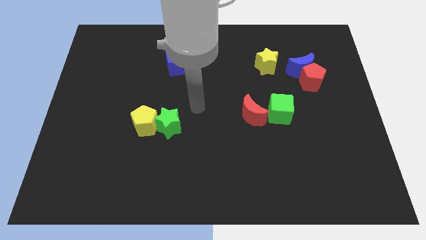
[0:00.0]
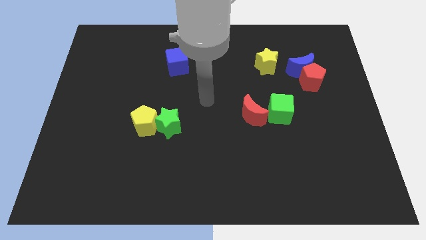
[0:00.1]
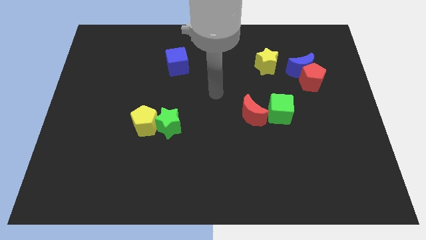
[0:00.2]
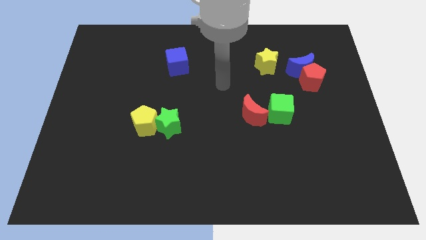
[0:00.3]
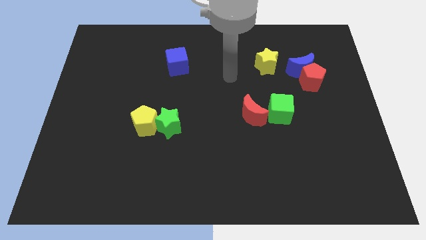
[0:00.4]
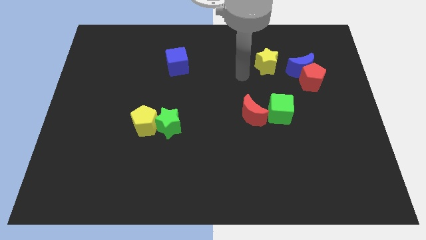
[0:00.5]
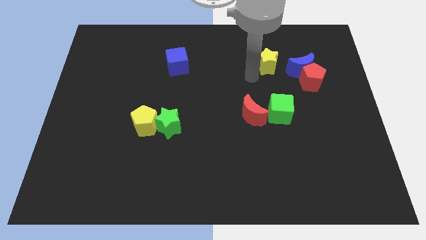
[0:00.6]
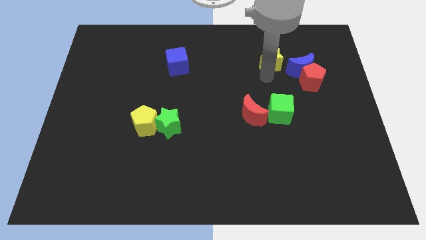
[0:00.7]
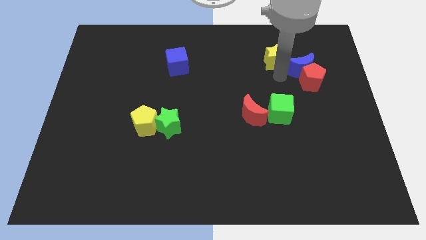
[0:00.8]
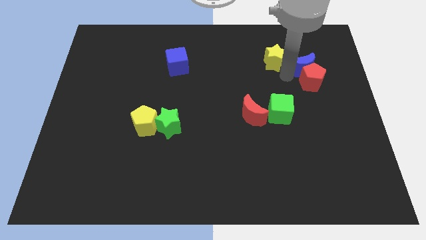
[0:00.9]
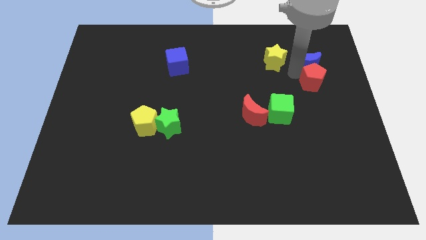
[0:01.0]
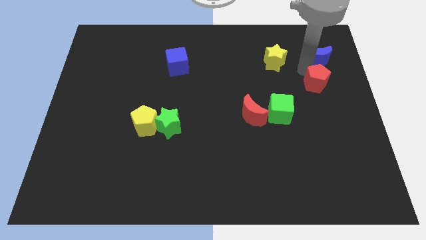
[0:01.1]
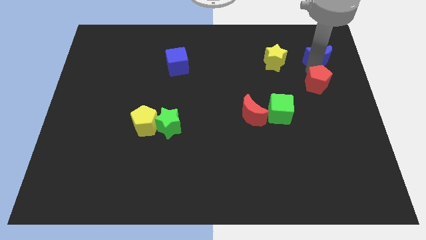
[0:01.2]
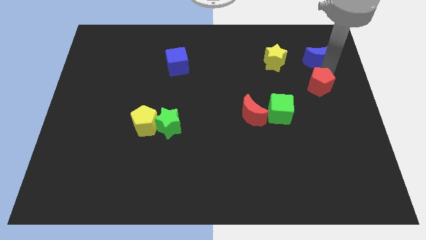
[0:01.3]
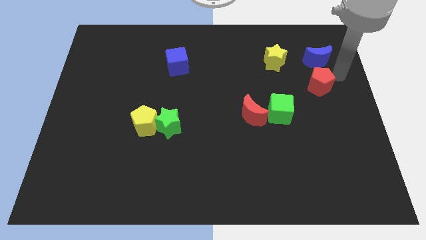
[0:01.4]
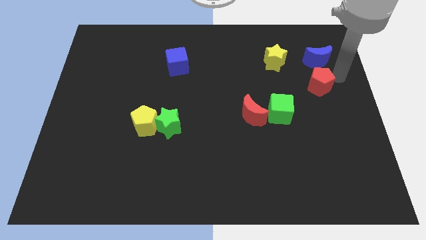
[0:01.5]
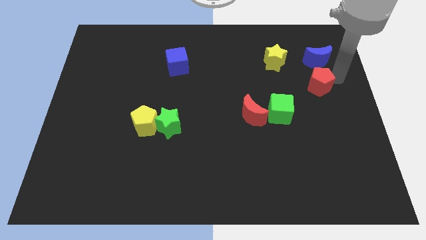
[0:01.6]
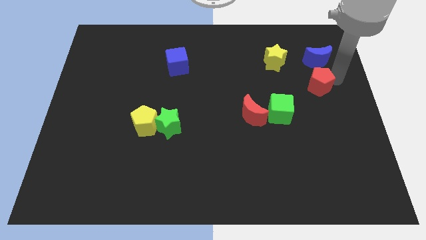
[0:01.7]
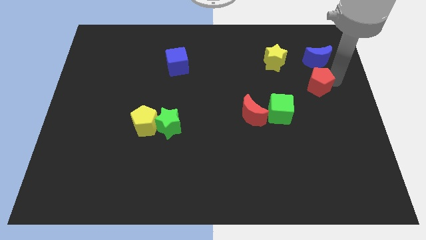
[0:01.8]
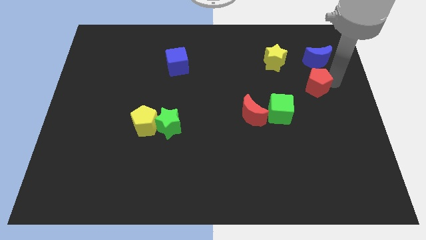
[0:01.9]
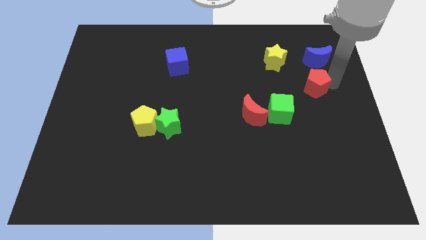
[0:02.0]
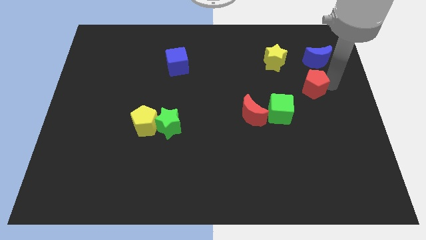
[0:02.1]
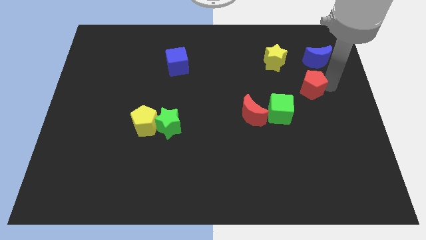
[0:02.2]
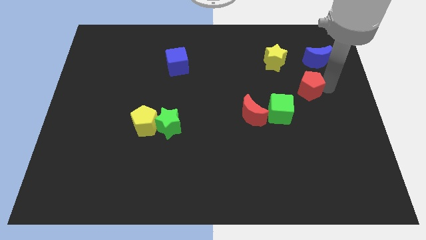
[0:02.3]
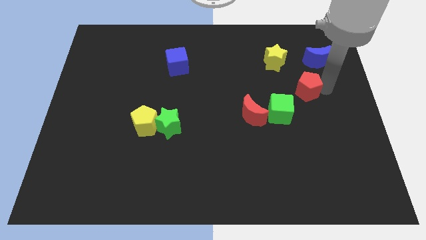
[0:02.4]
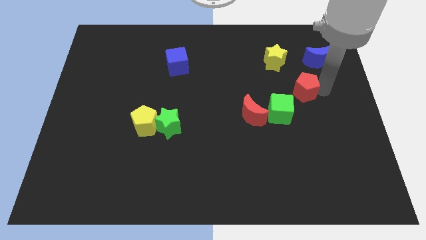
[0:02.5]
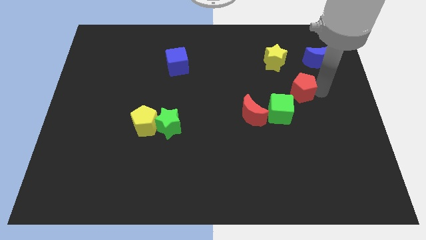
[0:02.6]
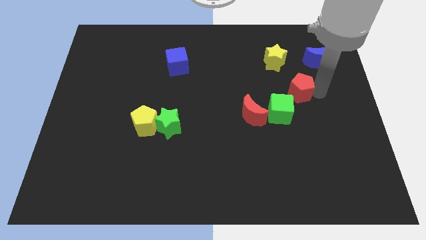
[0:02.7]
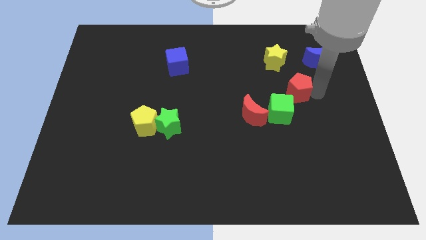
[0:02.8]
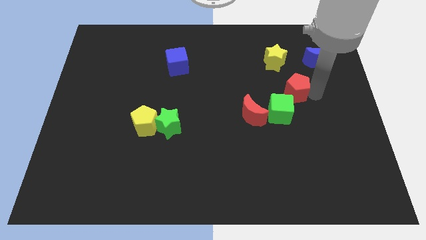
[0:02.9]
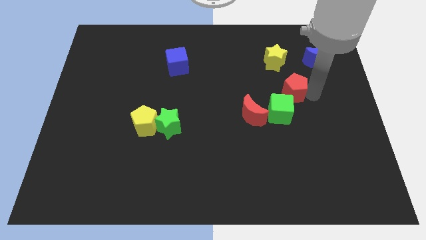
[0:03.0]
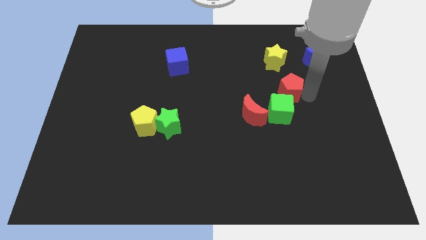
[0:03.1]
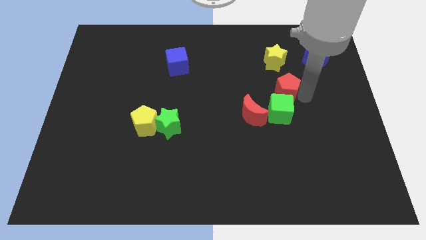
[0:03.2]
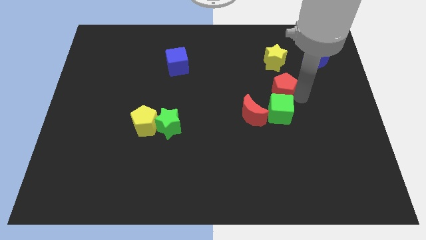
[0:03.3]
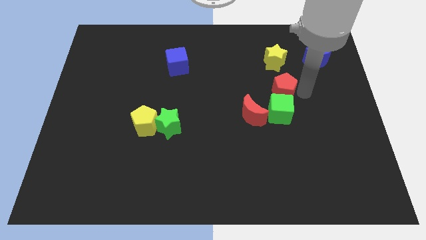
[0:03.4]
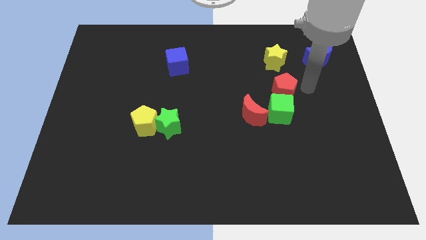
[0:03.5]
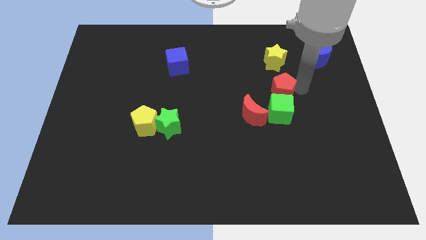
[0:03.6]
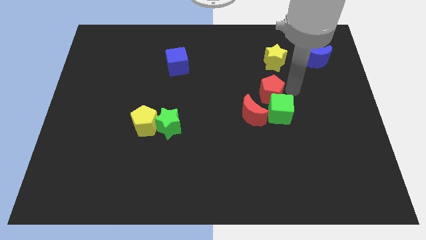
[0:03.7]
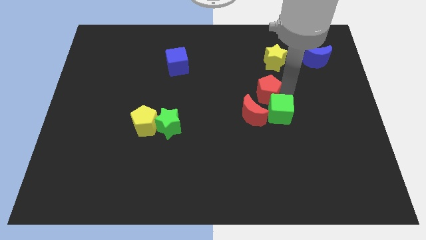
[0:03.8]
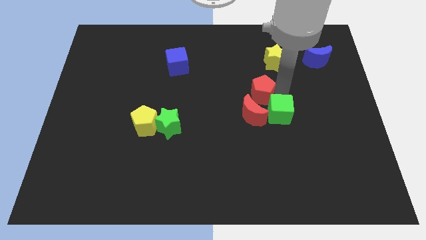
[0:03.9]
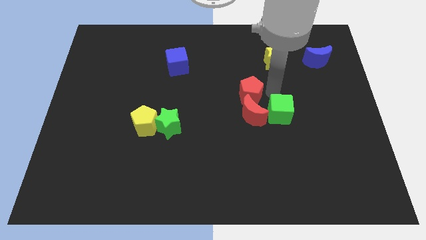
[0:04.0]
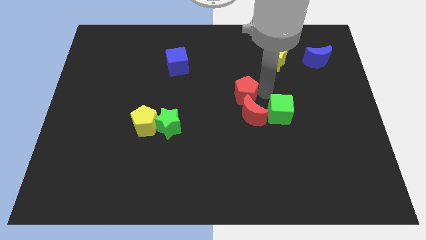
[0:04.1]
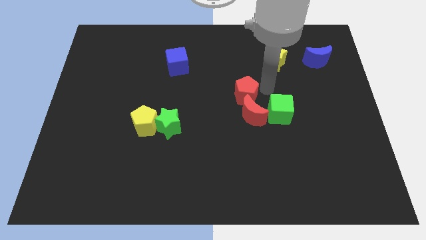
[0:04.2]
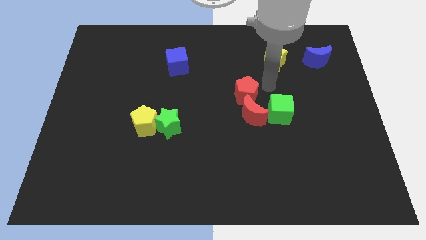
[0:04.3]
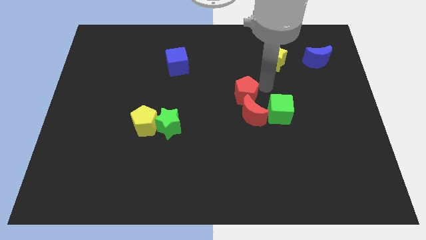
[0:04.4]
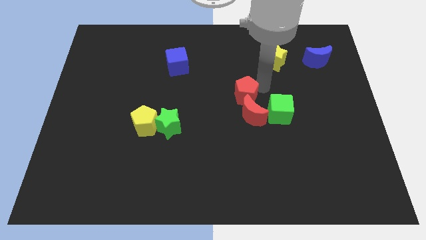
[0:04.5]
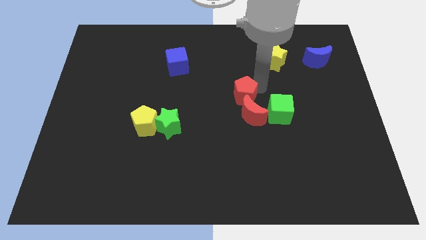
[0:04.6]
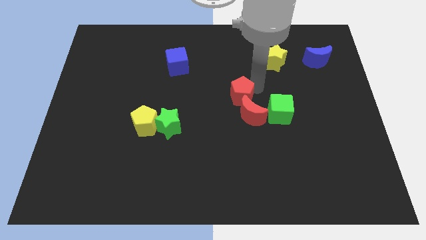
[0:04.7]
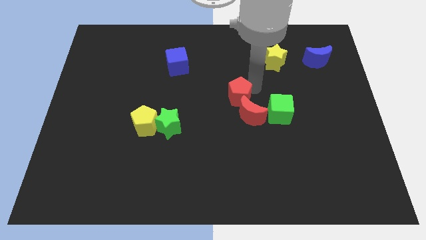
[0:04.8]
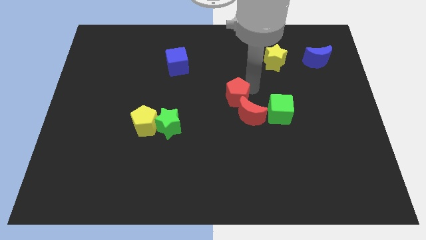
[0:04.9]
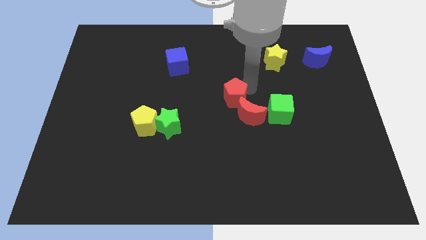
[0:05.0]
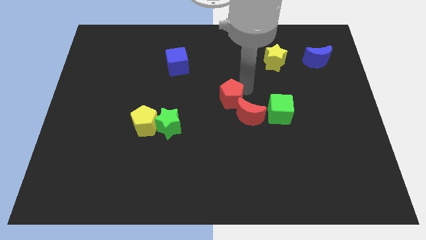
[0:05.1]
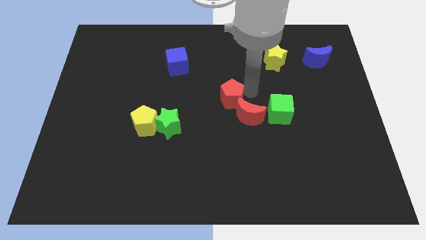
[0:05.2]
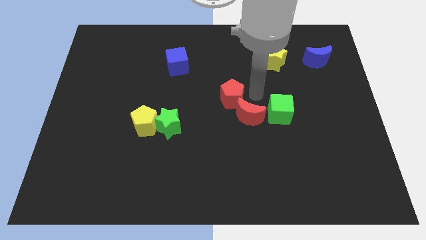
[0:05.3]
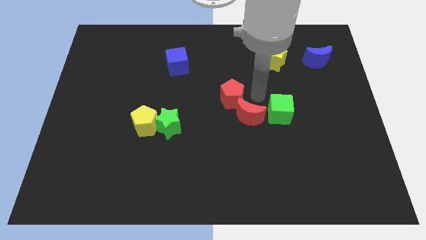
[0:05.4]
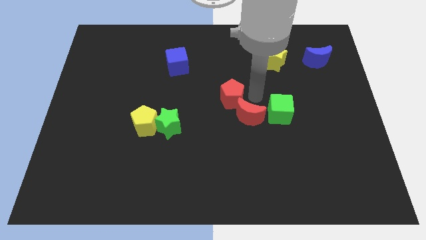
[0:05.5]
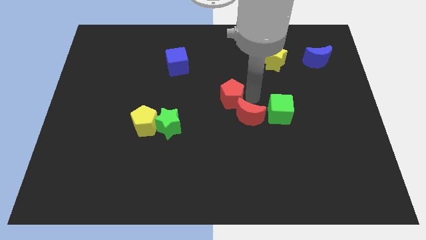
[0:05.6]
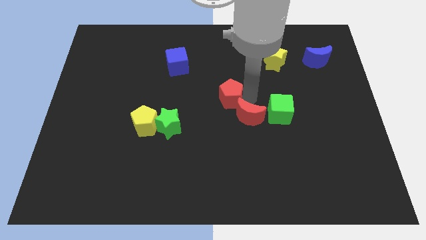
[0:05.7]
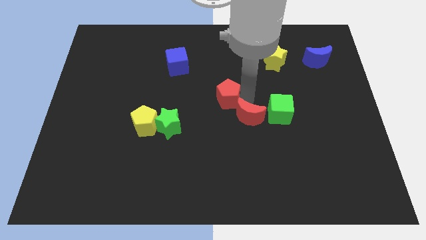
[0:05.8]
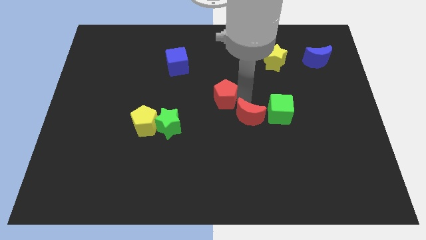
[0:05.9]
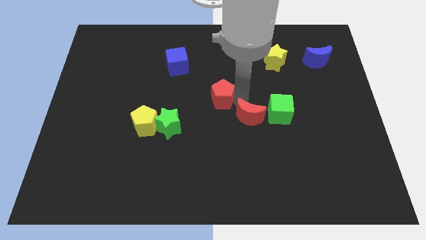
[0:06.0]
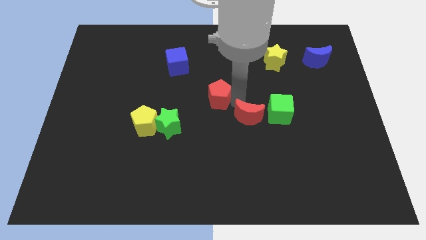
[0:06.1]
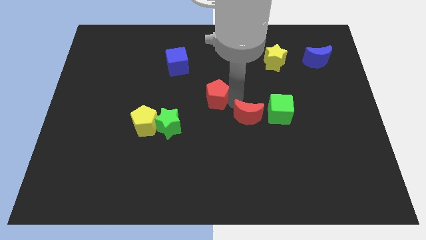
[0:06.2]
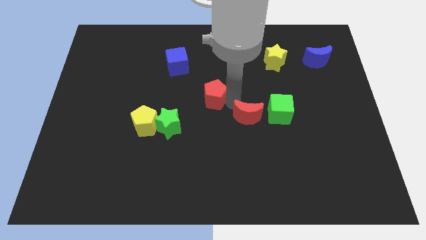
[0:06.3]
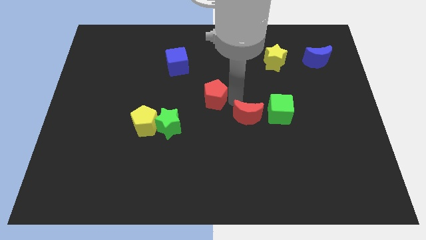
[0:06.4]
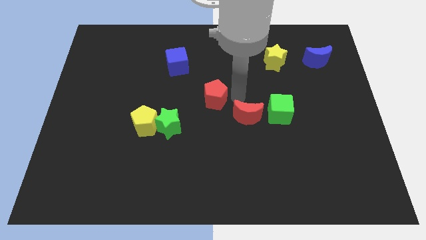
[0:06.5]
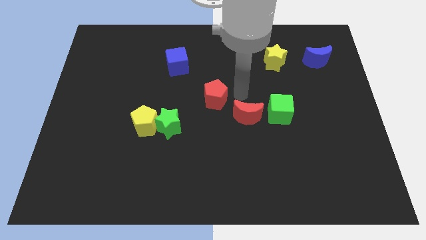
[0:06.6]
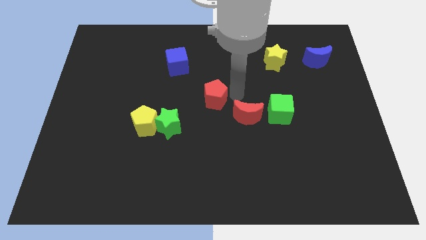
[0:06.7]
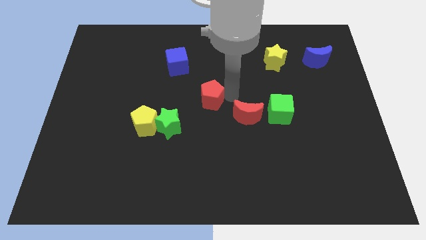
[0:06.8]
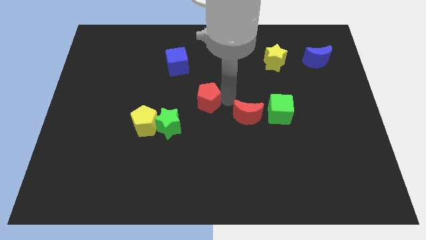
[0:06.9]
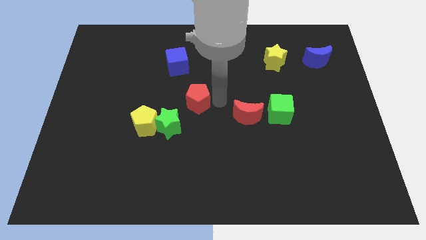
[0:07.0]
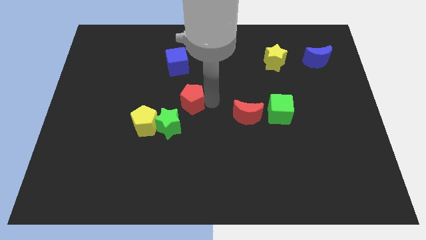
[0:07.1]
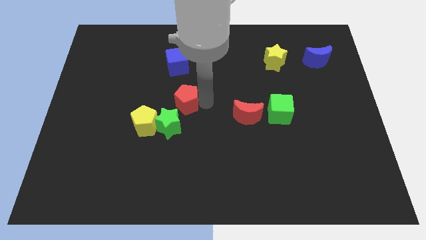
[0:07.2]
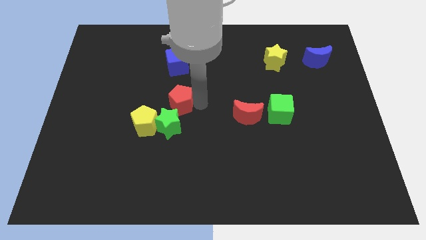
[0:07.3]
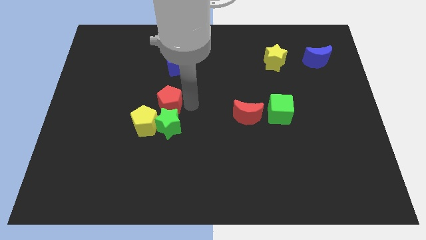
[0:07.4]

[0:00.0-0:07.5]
move the red pentagon to the top side of the yellow pentagon
